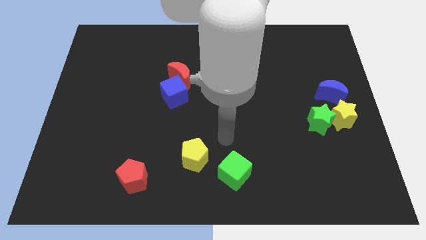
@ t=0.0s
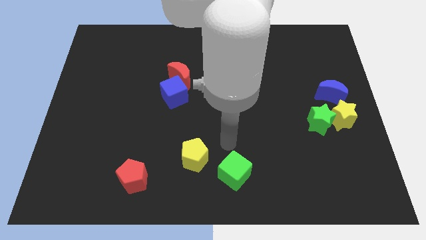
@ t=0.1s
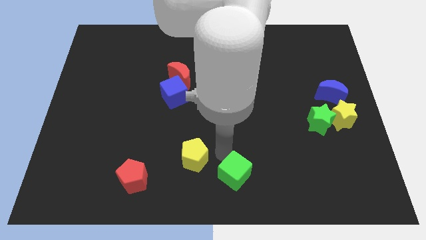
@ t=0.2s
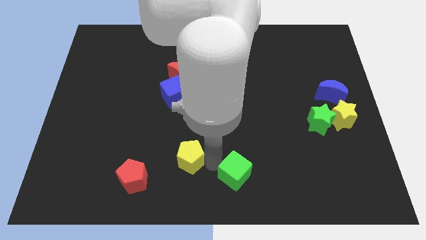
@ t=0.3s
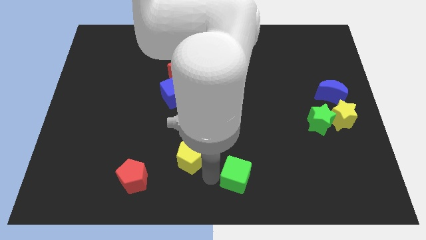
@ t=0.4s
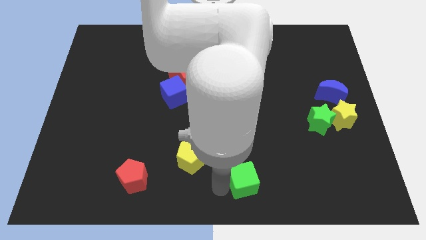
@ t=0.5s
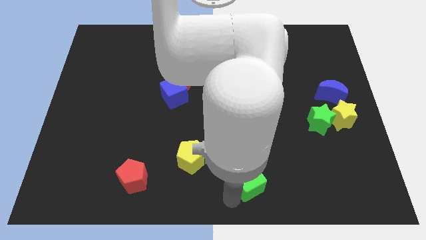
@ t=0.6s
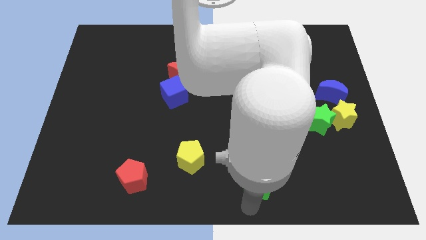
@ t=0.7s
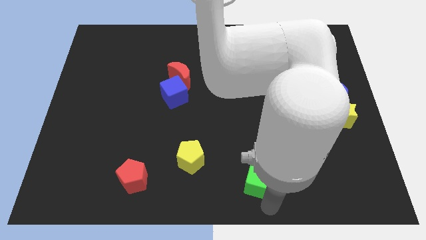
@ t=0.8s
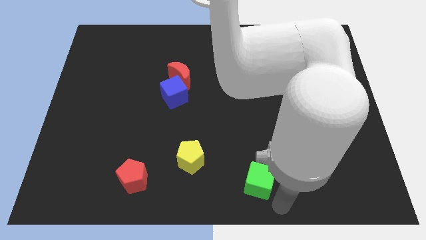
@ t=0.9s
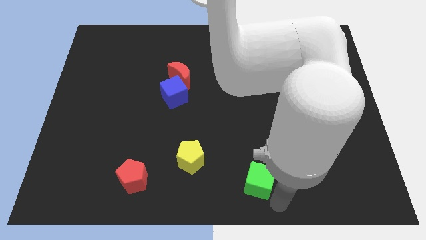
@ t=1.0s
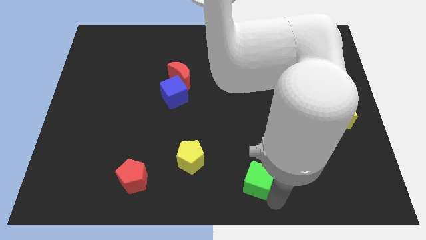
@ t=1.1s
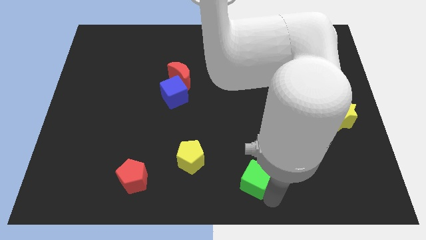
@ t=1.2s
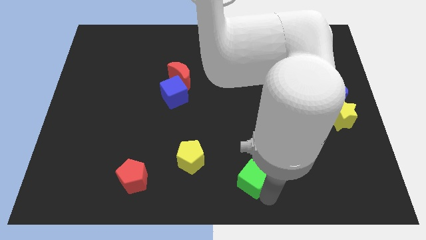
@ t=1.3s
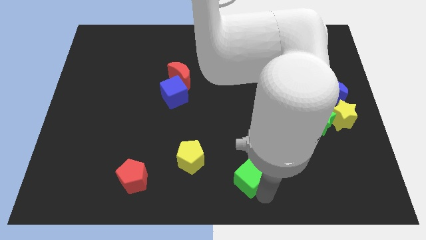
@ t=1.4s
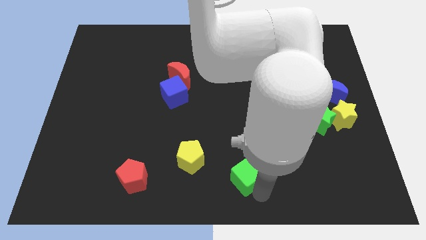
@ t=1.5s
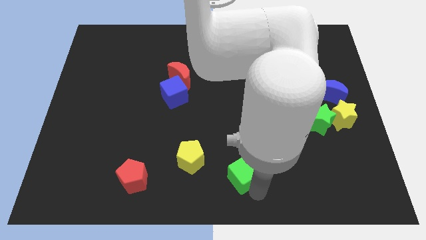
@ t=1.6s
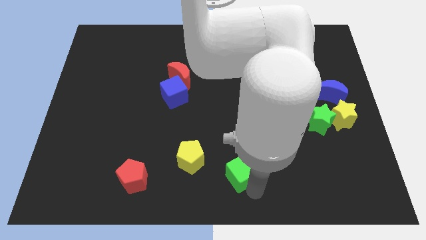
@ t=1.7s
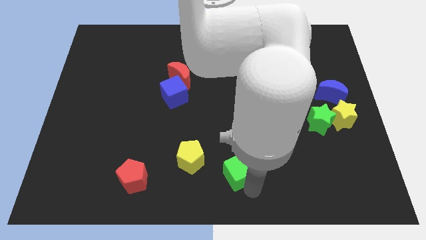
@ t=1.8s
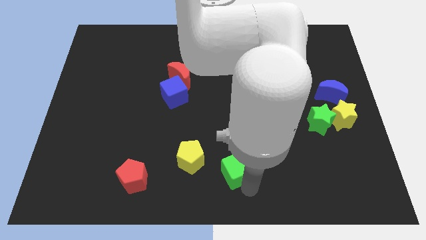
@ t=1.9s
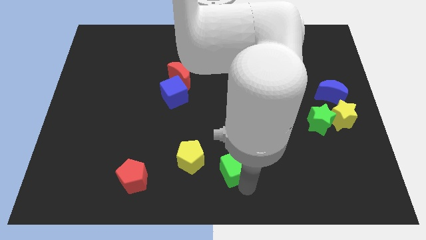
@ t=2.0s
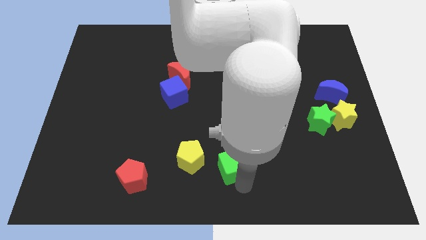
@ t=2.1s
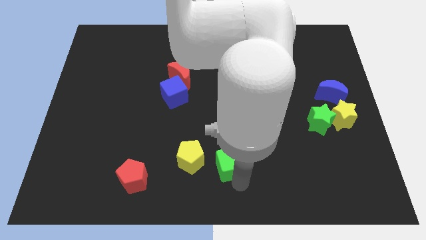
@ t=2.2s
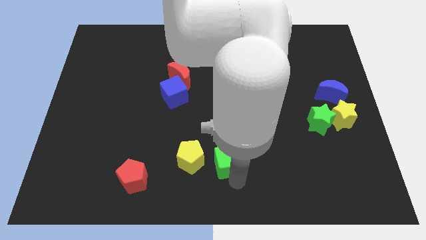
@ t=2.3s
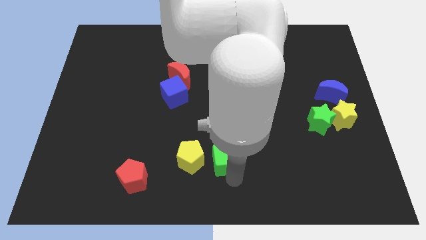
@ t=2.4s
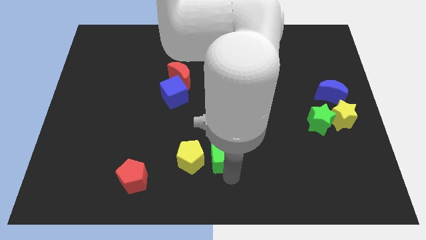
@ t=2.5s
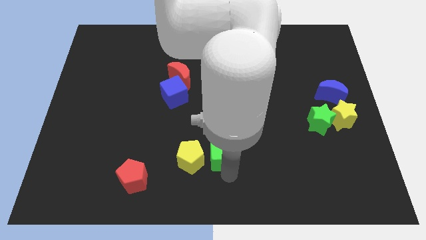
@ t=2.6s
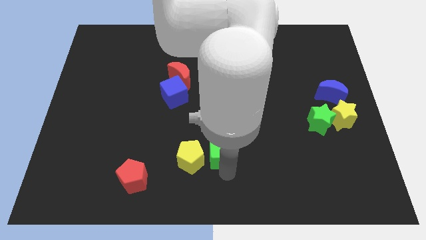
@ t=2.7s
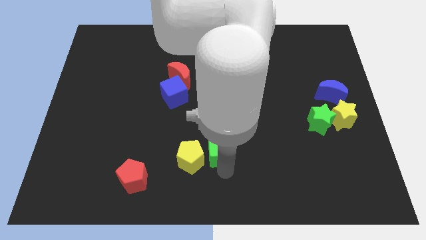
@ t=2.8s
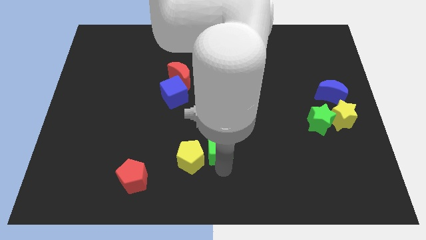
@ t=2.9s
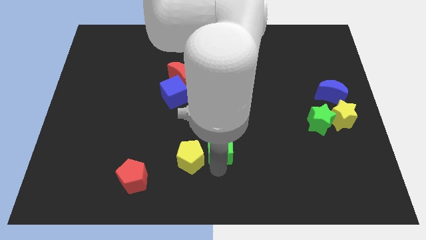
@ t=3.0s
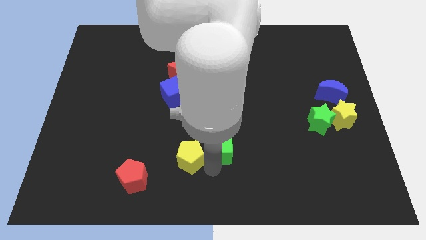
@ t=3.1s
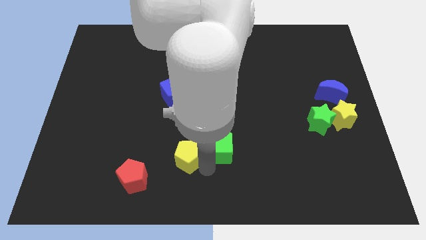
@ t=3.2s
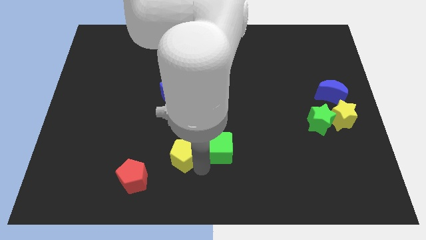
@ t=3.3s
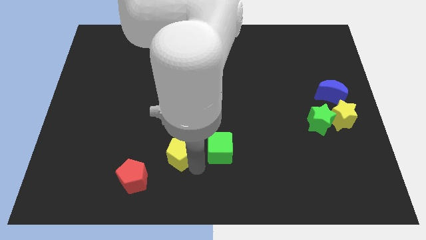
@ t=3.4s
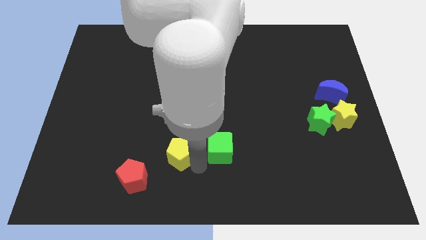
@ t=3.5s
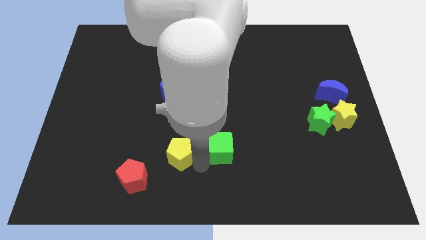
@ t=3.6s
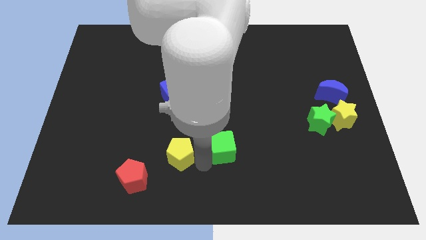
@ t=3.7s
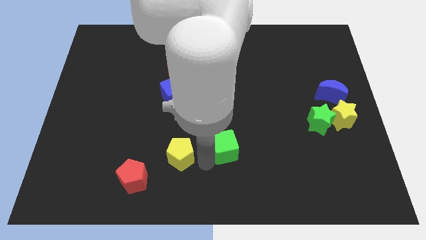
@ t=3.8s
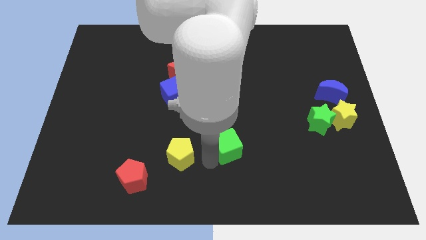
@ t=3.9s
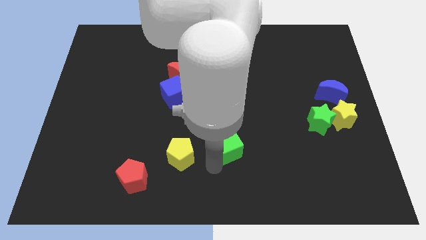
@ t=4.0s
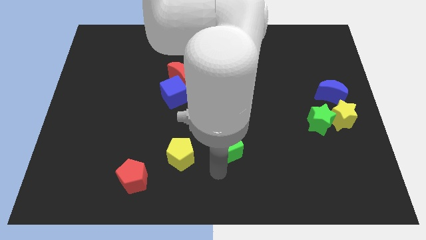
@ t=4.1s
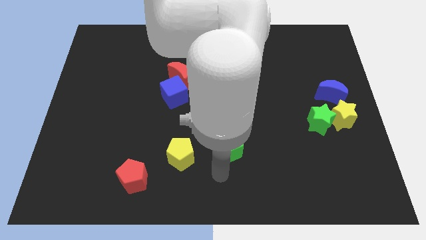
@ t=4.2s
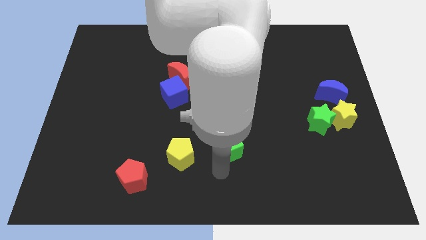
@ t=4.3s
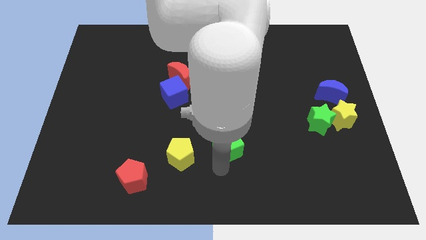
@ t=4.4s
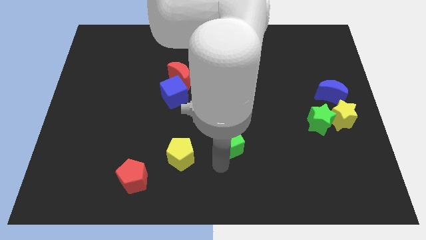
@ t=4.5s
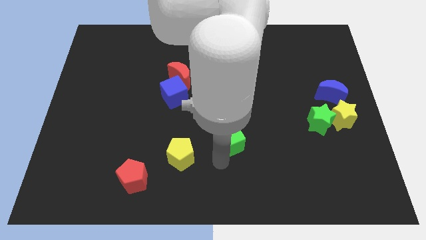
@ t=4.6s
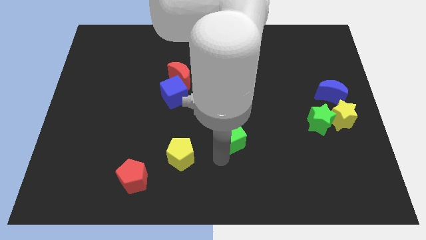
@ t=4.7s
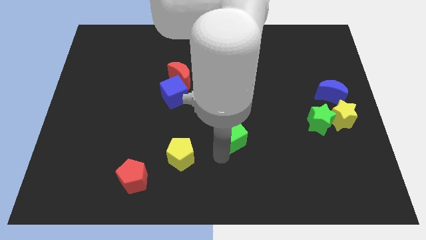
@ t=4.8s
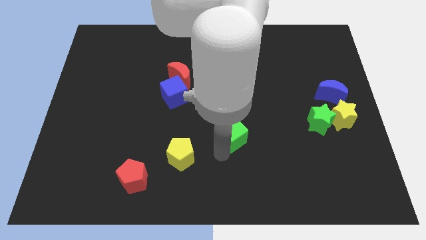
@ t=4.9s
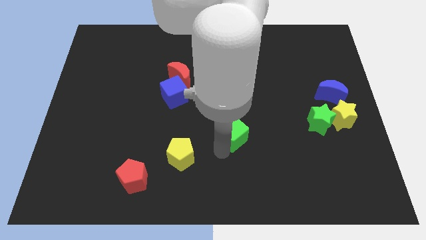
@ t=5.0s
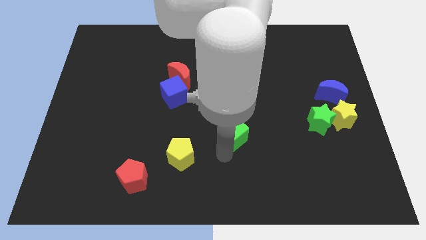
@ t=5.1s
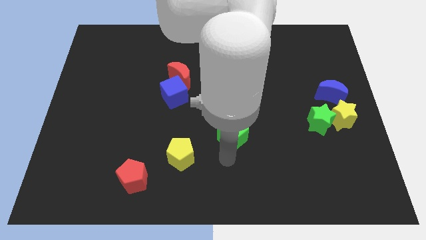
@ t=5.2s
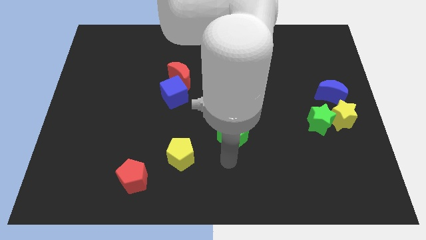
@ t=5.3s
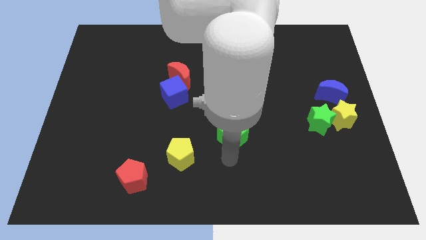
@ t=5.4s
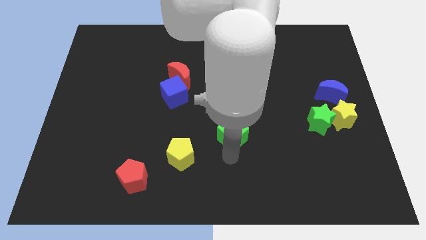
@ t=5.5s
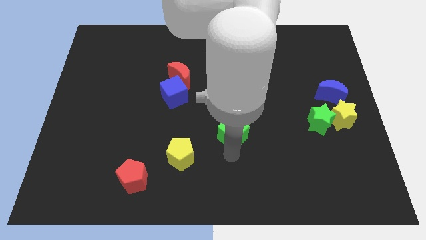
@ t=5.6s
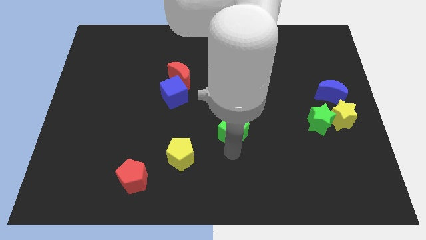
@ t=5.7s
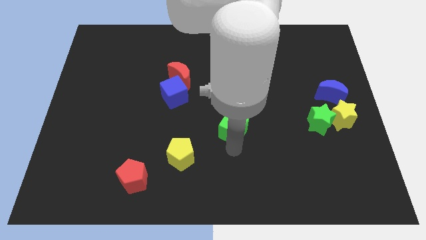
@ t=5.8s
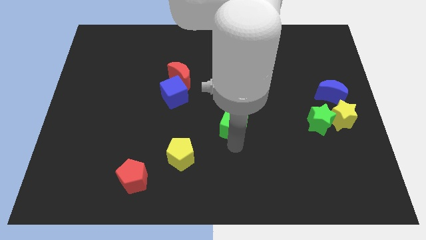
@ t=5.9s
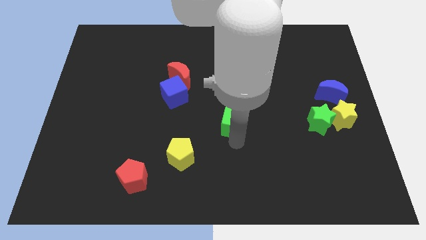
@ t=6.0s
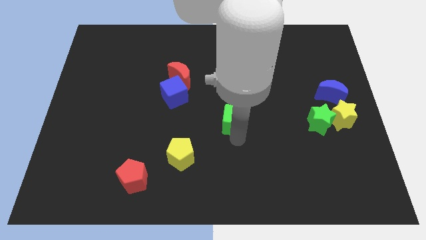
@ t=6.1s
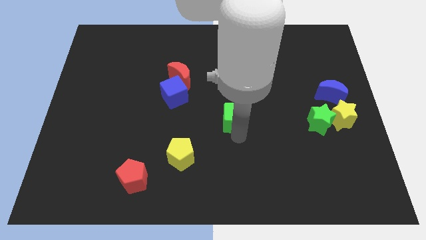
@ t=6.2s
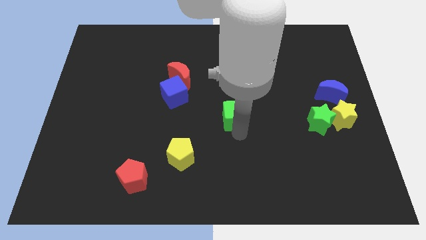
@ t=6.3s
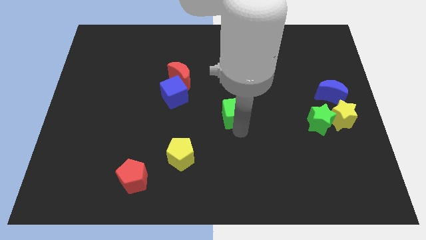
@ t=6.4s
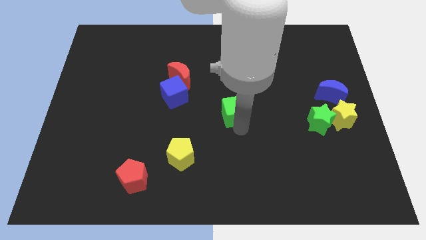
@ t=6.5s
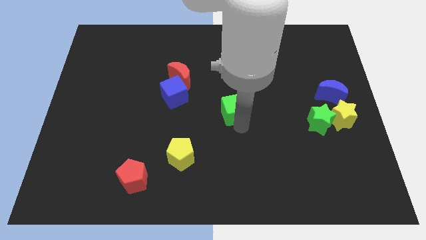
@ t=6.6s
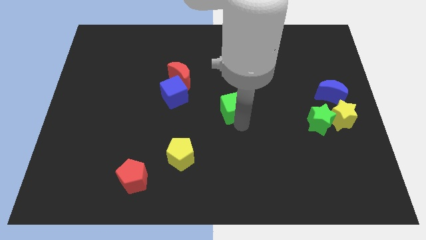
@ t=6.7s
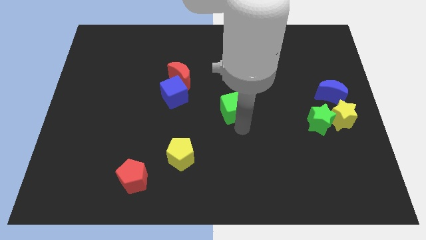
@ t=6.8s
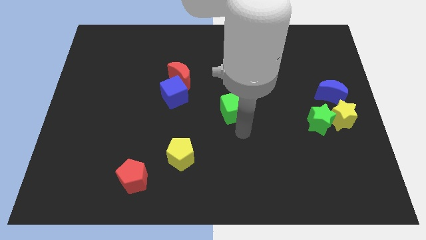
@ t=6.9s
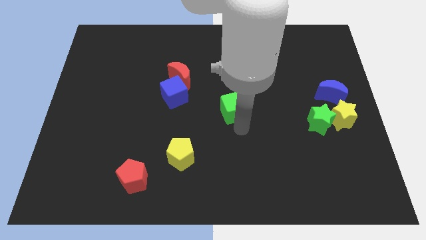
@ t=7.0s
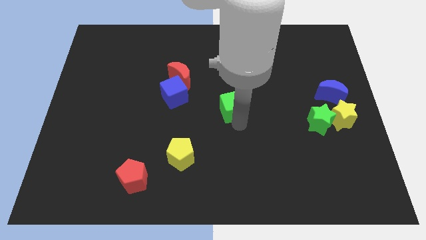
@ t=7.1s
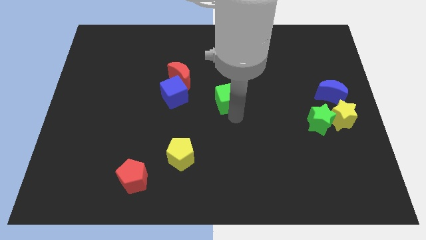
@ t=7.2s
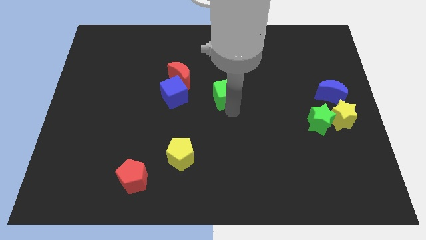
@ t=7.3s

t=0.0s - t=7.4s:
slide the green cube upwards

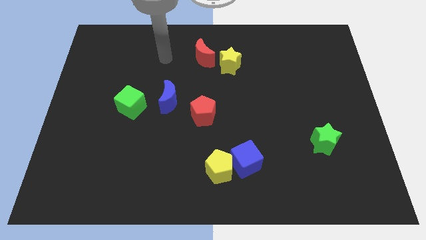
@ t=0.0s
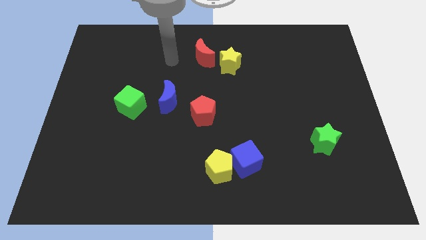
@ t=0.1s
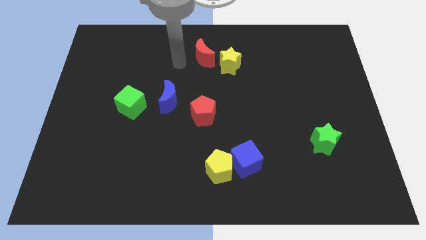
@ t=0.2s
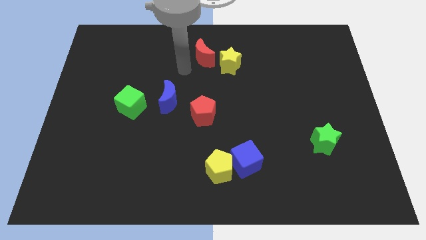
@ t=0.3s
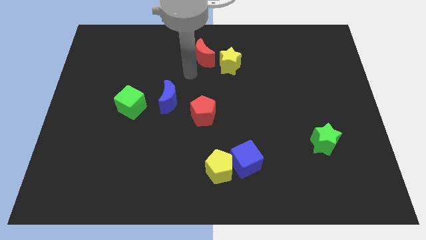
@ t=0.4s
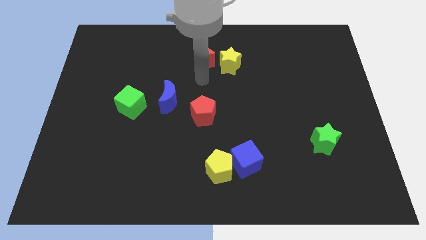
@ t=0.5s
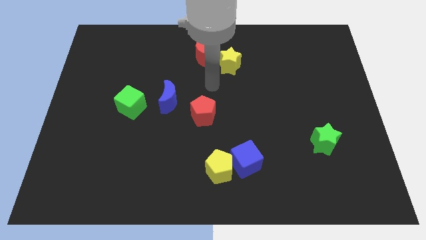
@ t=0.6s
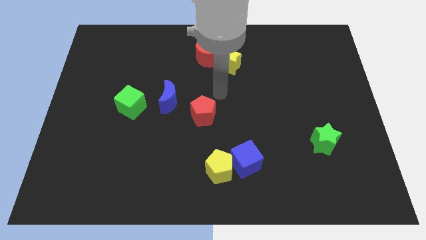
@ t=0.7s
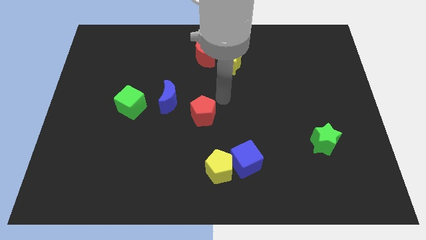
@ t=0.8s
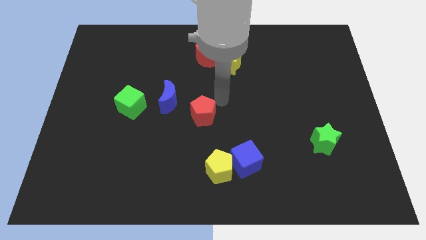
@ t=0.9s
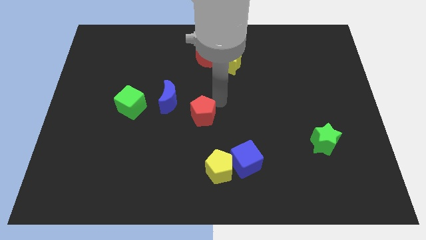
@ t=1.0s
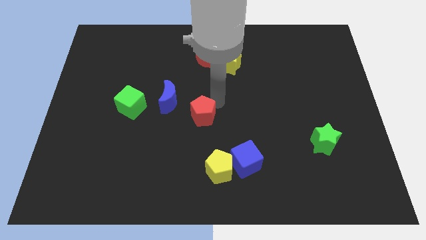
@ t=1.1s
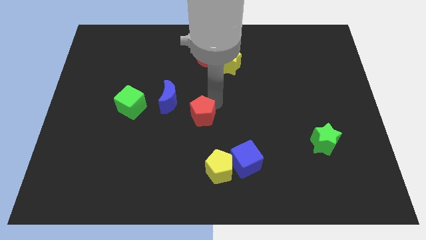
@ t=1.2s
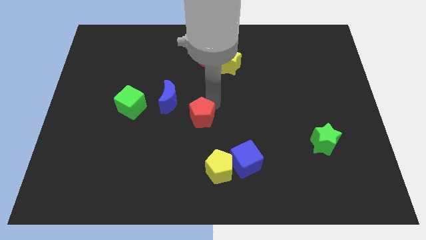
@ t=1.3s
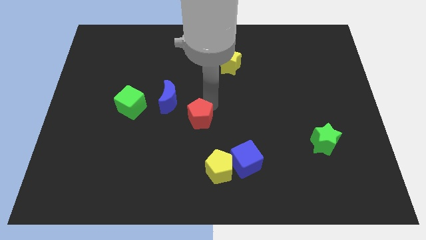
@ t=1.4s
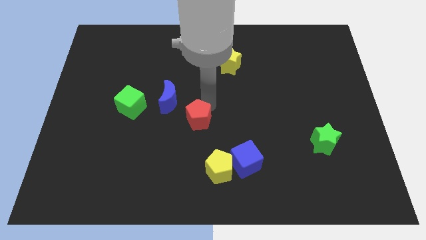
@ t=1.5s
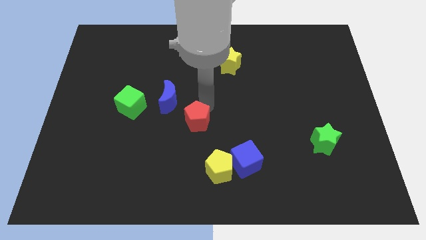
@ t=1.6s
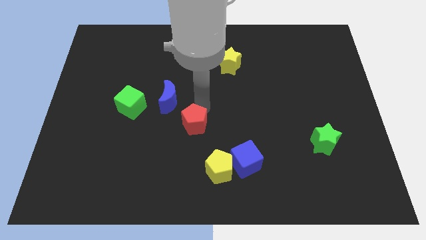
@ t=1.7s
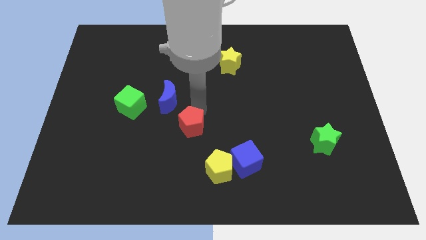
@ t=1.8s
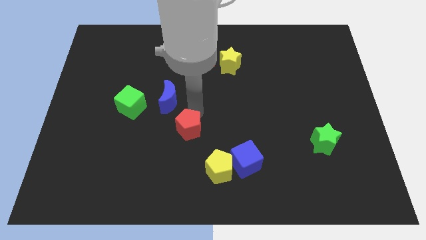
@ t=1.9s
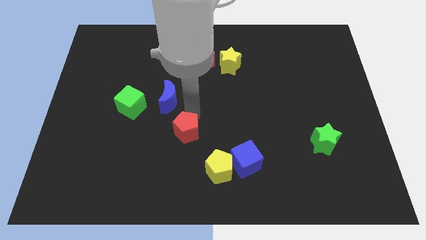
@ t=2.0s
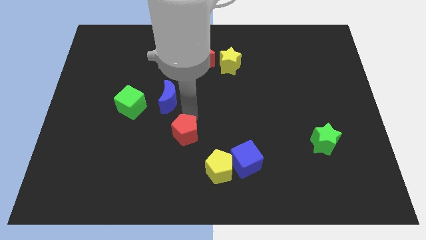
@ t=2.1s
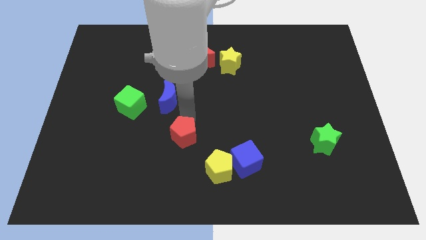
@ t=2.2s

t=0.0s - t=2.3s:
push the red pentagon a bit diagonally downwards and to the left
